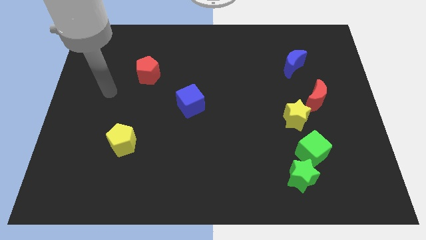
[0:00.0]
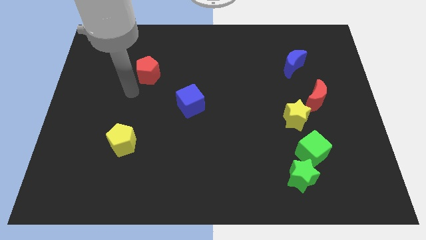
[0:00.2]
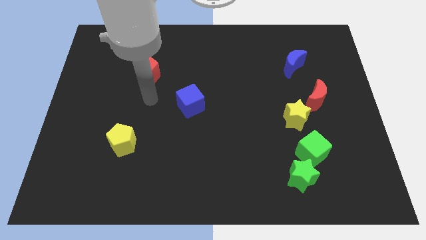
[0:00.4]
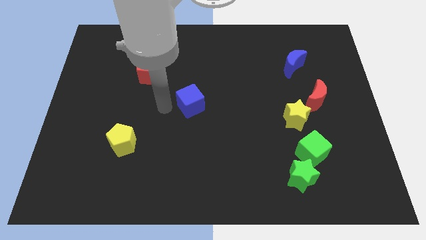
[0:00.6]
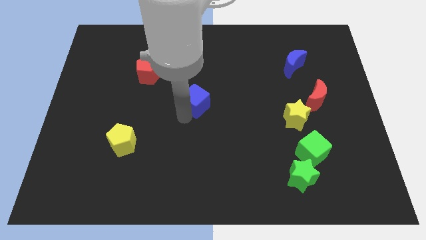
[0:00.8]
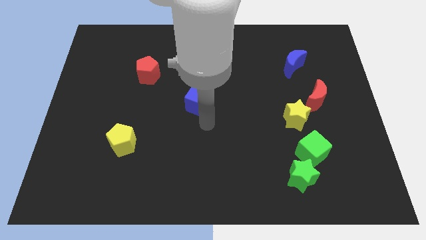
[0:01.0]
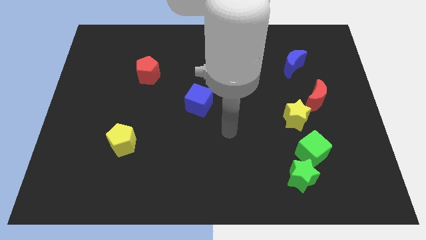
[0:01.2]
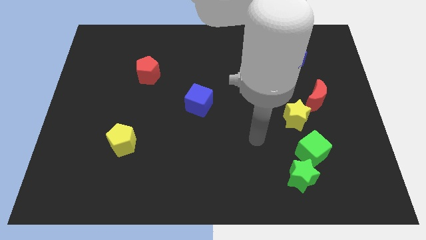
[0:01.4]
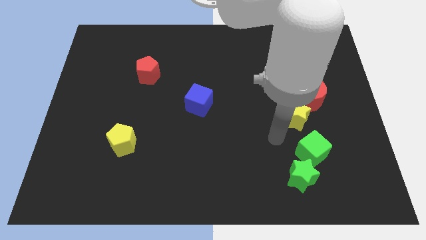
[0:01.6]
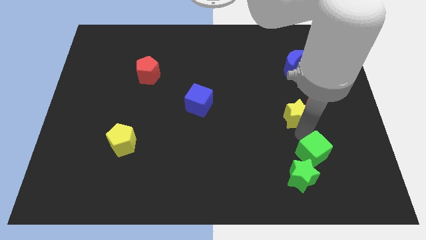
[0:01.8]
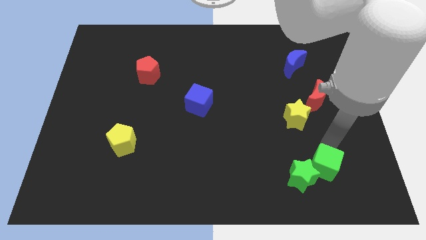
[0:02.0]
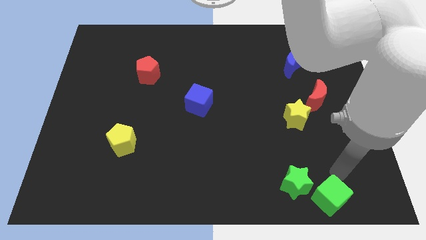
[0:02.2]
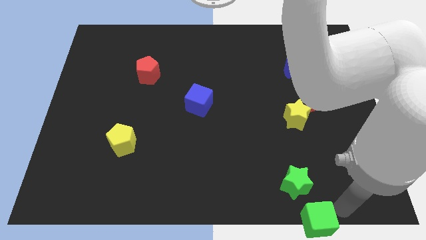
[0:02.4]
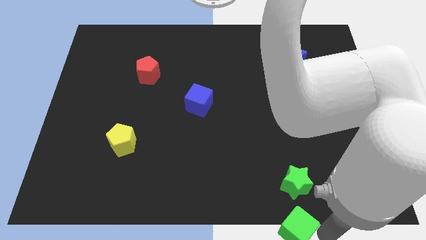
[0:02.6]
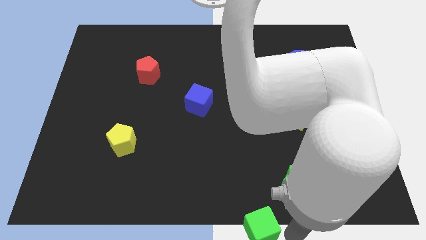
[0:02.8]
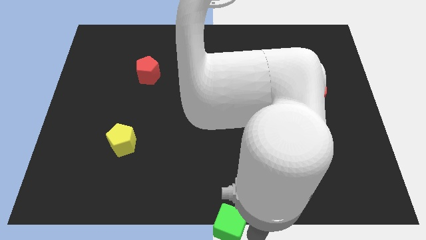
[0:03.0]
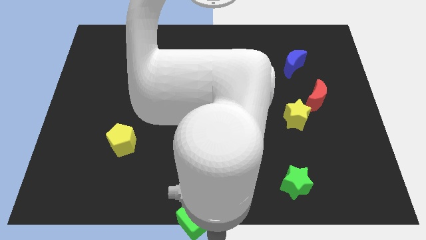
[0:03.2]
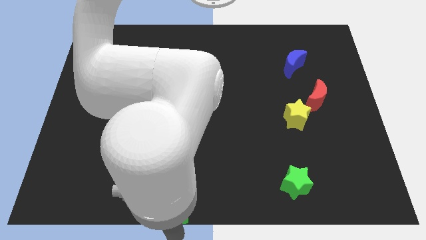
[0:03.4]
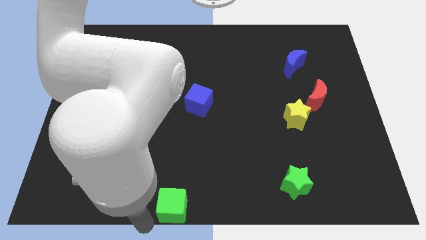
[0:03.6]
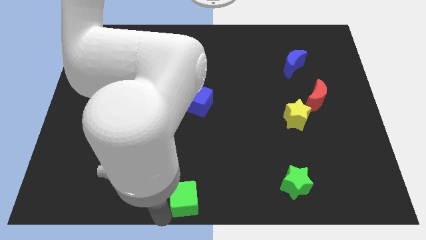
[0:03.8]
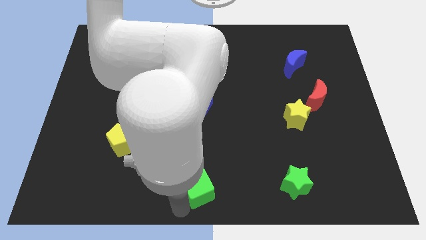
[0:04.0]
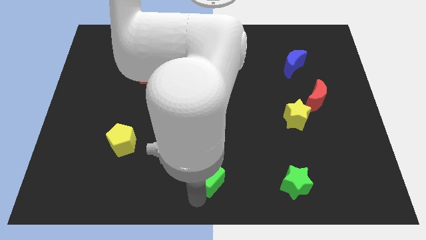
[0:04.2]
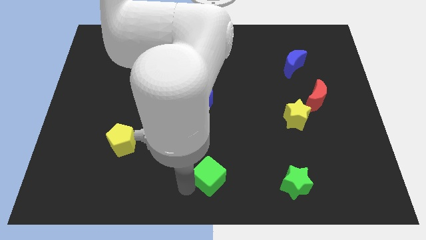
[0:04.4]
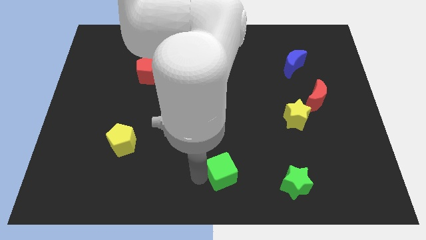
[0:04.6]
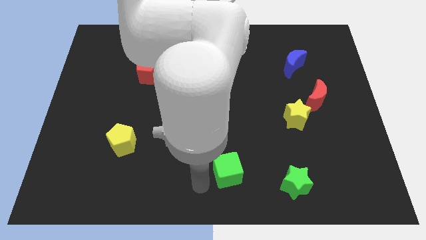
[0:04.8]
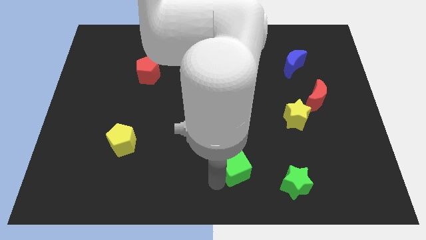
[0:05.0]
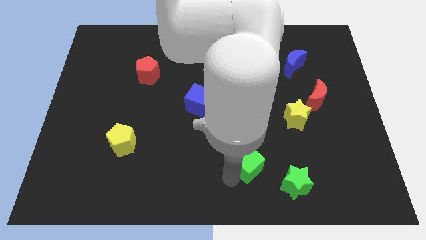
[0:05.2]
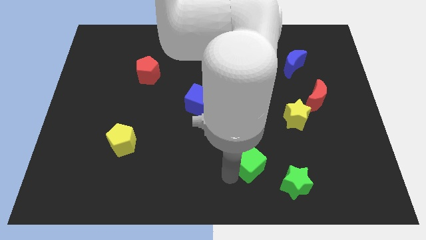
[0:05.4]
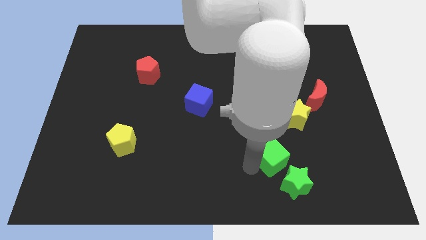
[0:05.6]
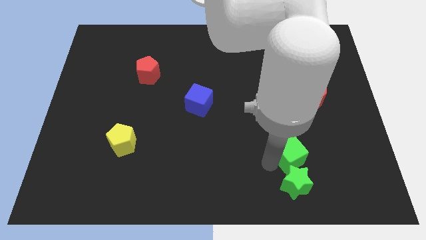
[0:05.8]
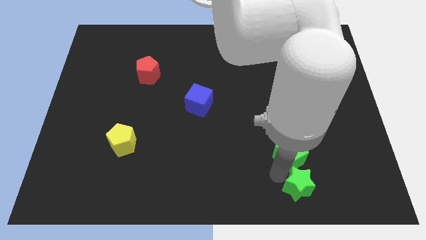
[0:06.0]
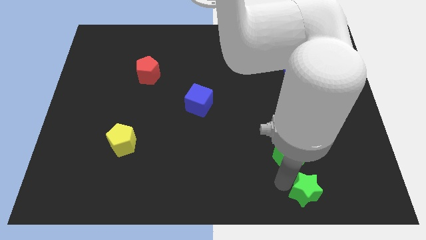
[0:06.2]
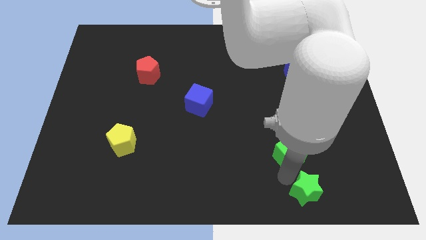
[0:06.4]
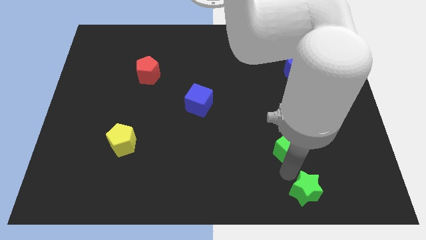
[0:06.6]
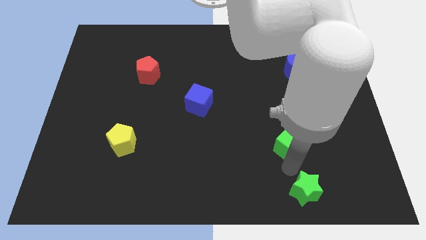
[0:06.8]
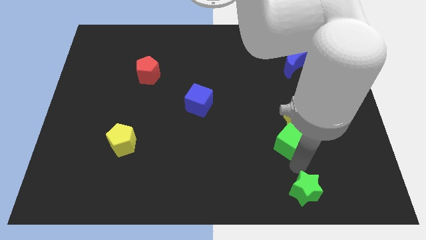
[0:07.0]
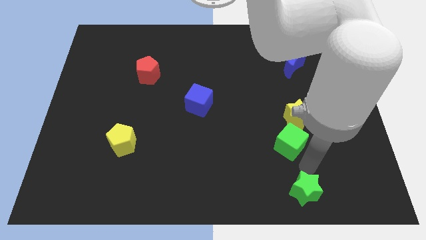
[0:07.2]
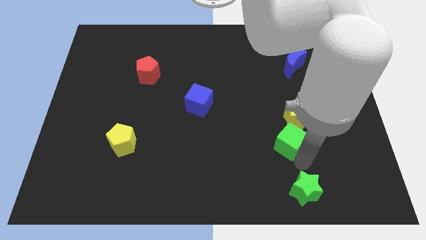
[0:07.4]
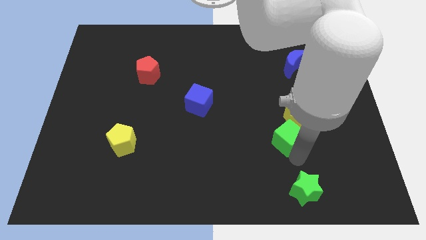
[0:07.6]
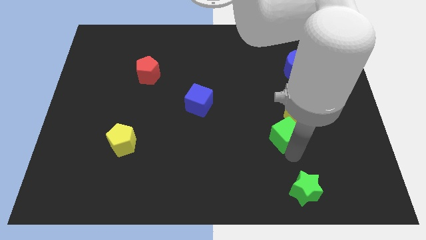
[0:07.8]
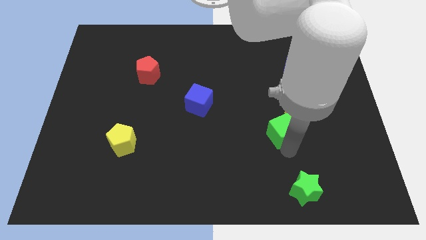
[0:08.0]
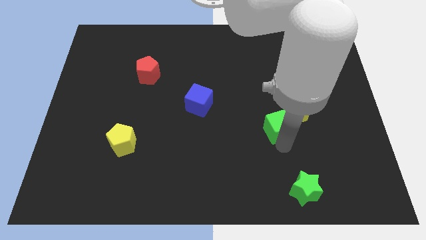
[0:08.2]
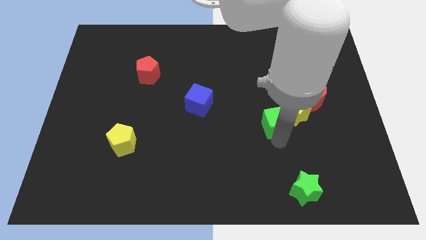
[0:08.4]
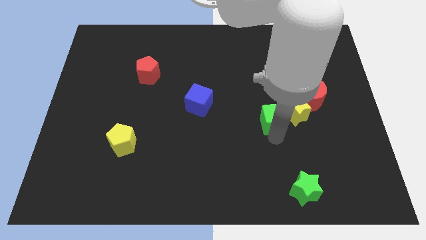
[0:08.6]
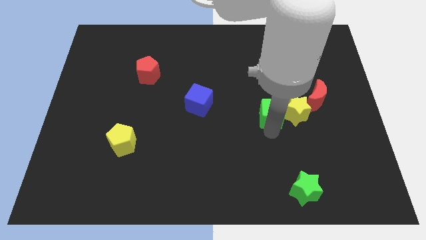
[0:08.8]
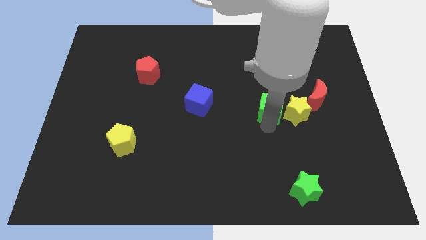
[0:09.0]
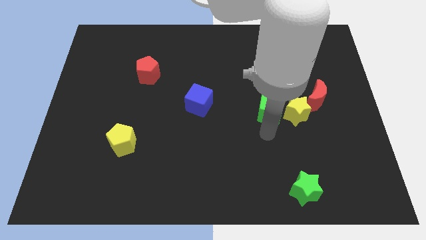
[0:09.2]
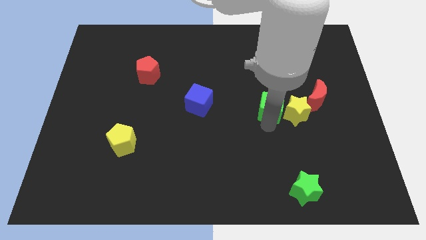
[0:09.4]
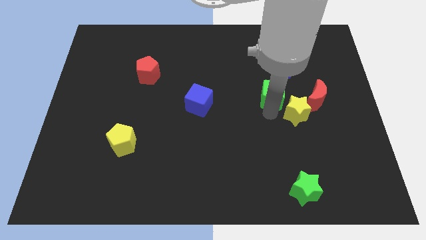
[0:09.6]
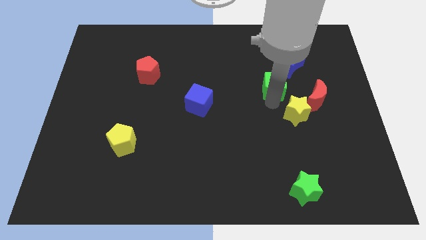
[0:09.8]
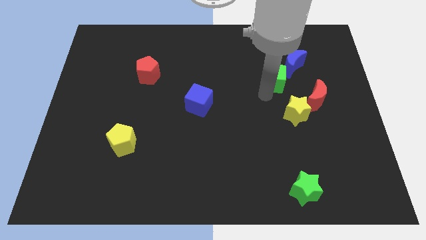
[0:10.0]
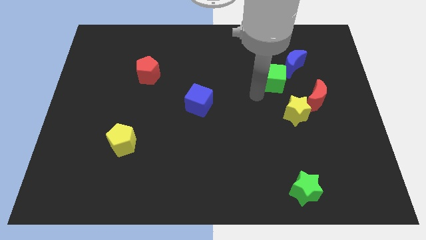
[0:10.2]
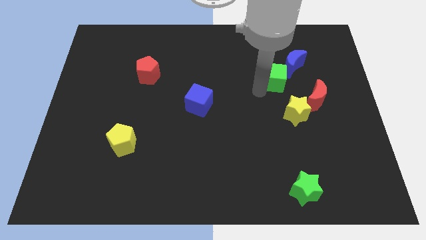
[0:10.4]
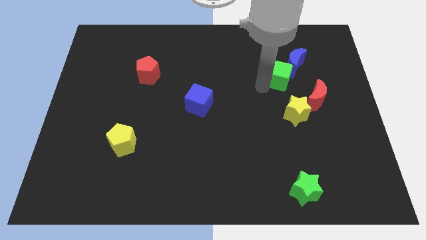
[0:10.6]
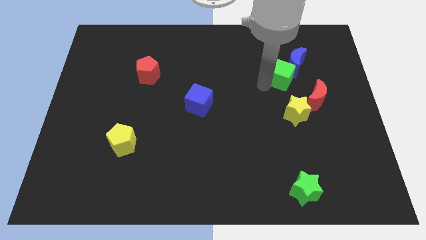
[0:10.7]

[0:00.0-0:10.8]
put the green cube next to the blue moon

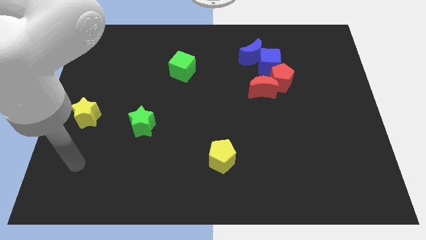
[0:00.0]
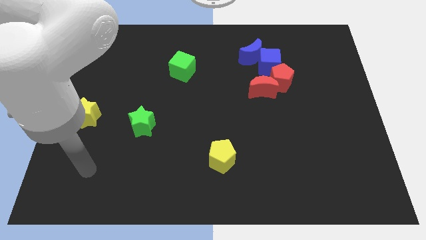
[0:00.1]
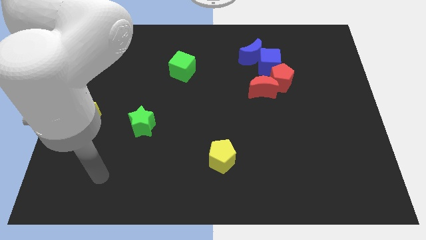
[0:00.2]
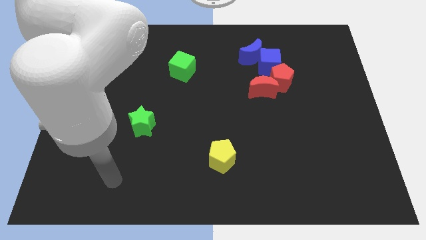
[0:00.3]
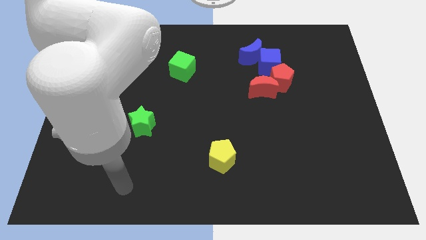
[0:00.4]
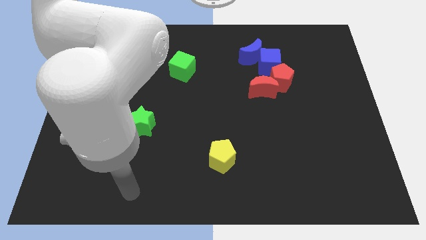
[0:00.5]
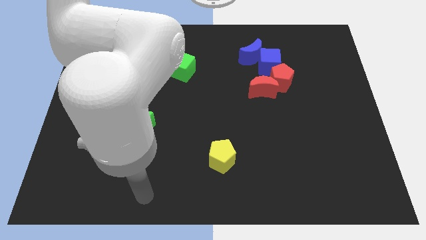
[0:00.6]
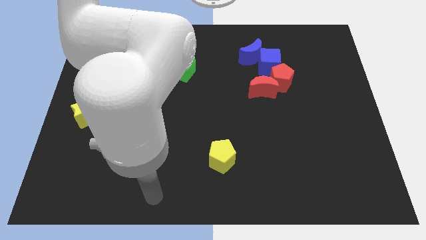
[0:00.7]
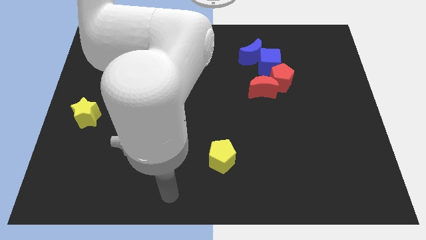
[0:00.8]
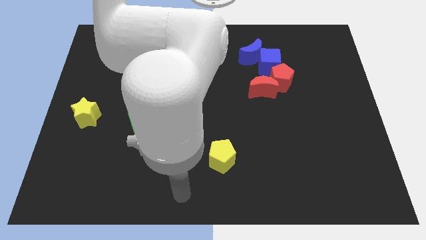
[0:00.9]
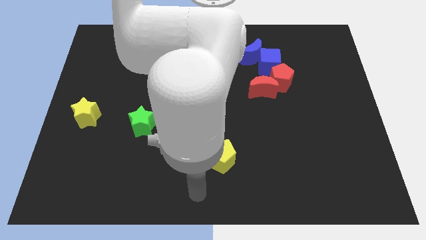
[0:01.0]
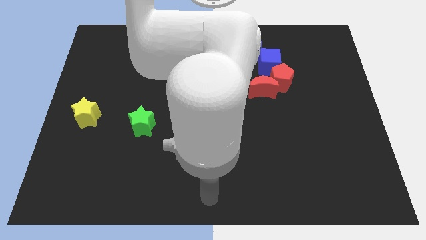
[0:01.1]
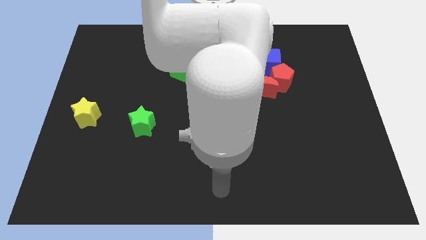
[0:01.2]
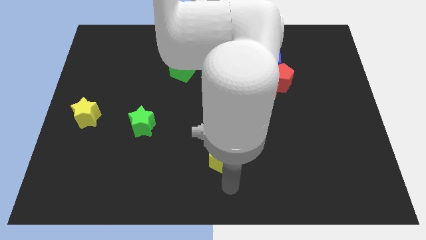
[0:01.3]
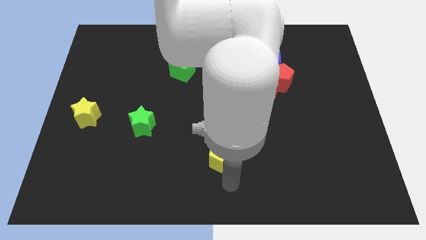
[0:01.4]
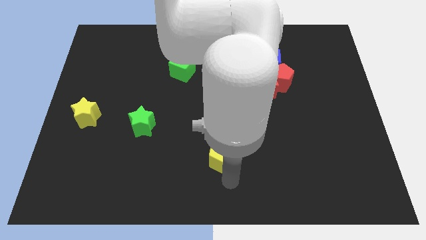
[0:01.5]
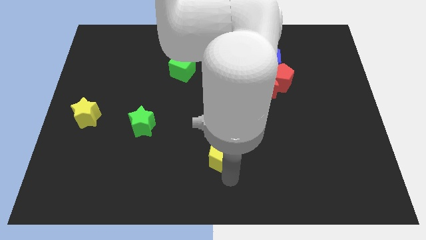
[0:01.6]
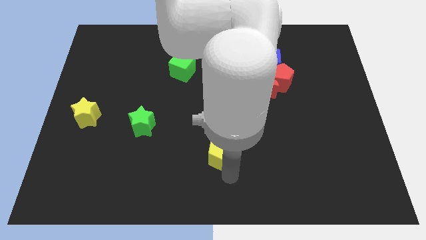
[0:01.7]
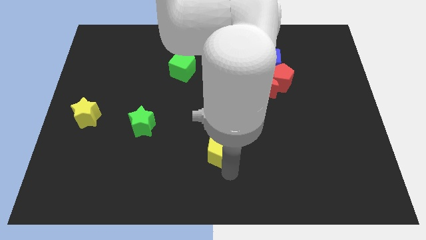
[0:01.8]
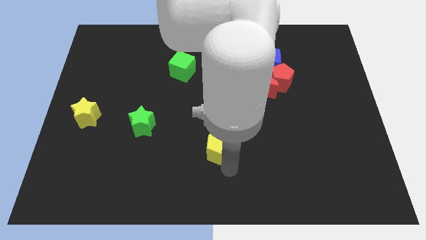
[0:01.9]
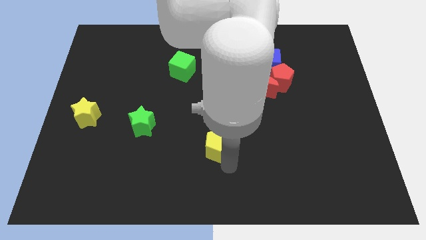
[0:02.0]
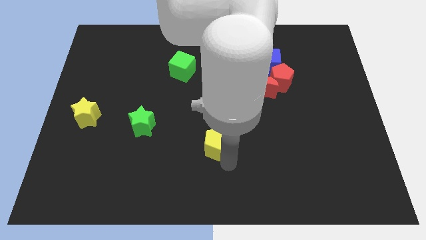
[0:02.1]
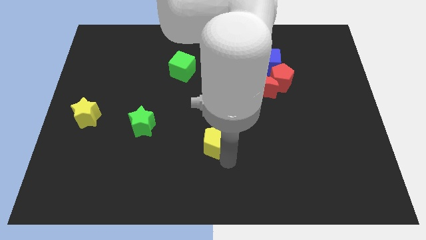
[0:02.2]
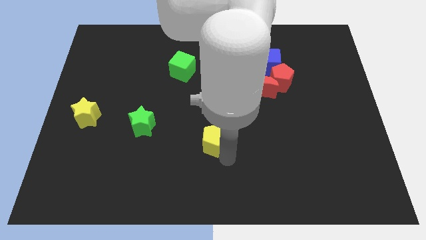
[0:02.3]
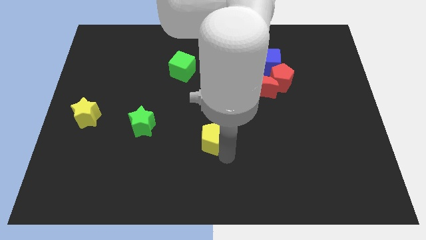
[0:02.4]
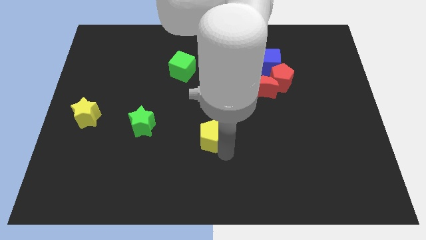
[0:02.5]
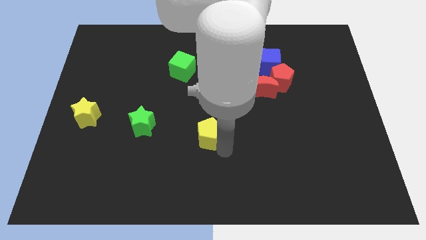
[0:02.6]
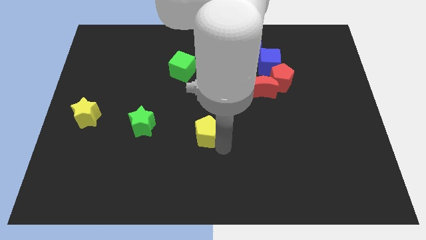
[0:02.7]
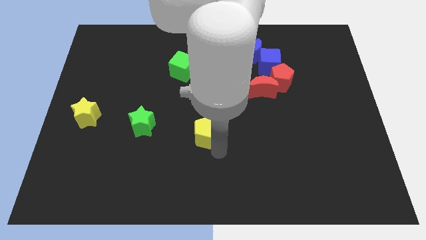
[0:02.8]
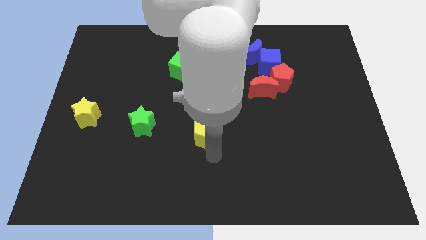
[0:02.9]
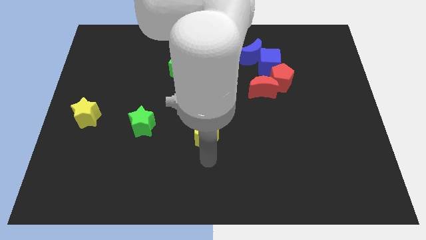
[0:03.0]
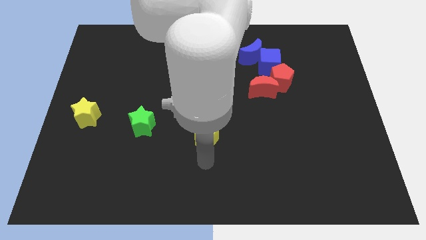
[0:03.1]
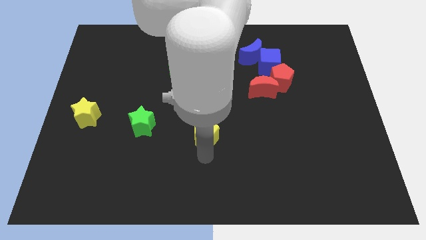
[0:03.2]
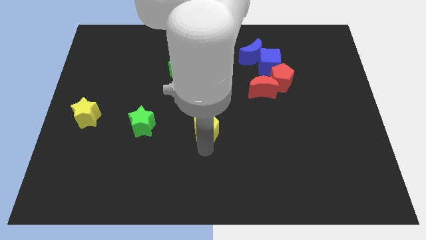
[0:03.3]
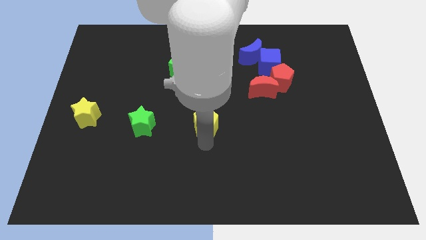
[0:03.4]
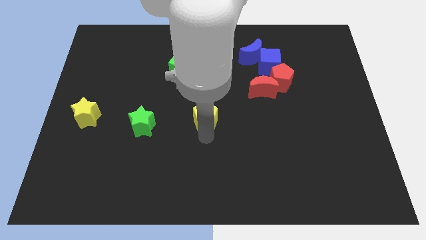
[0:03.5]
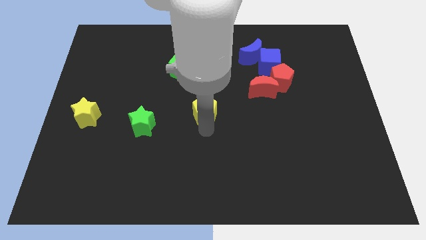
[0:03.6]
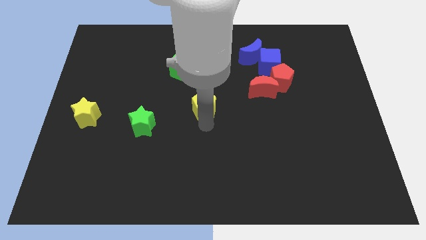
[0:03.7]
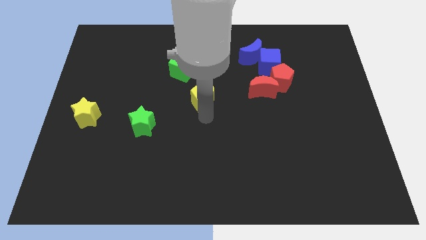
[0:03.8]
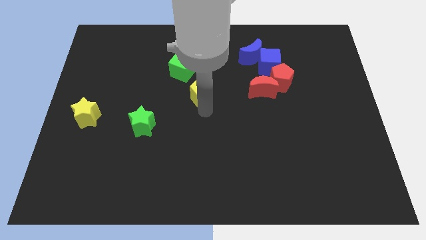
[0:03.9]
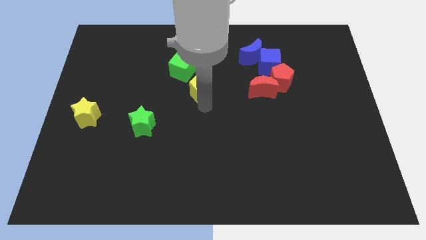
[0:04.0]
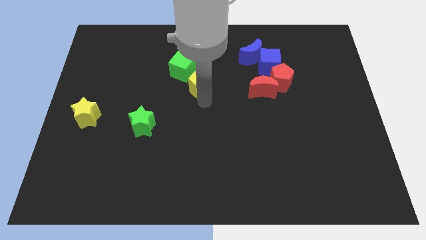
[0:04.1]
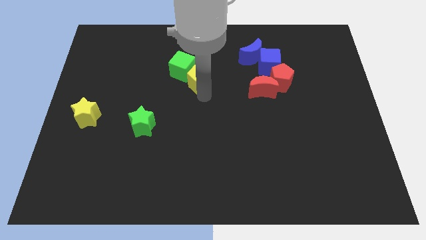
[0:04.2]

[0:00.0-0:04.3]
slide the yellow pentagon next to the green cube
